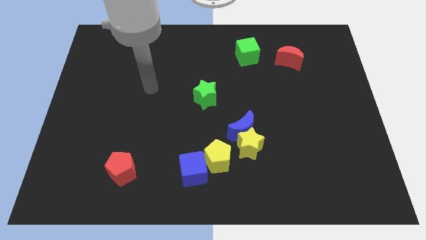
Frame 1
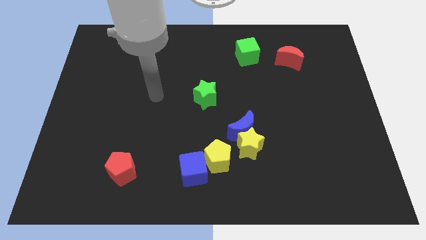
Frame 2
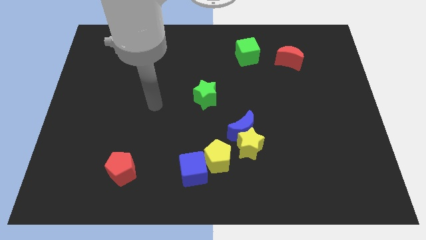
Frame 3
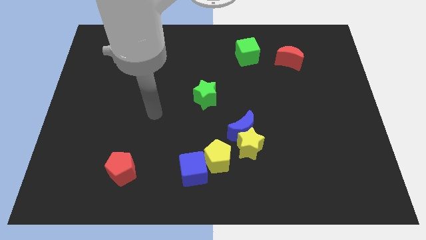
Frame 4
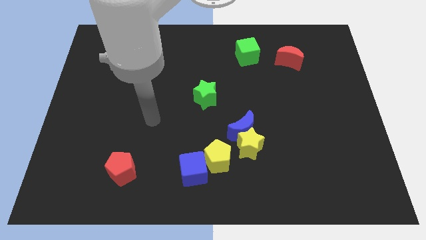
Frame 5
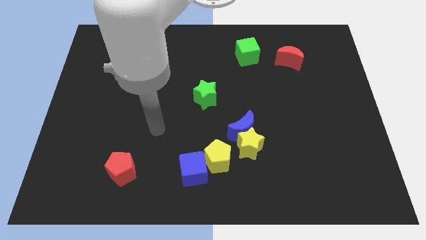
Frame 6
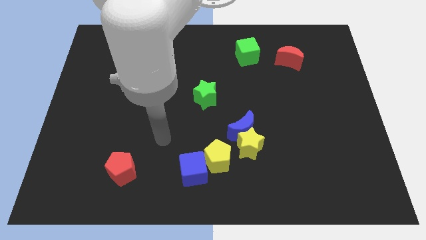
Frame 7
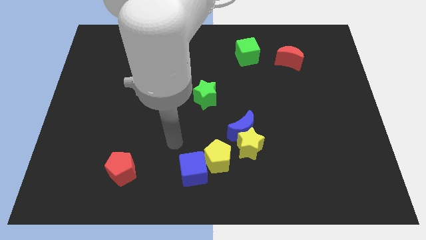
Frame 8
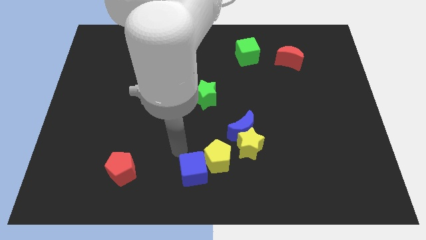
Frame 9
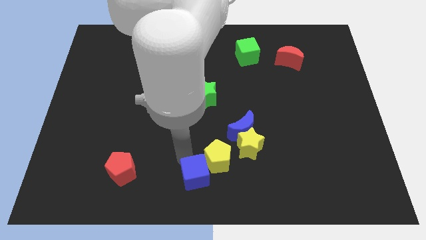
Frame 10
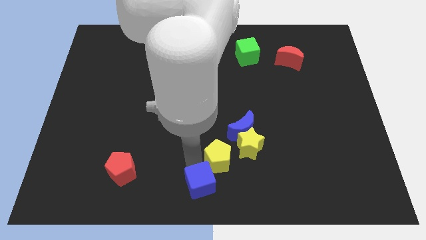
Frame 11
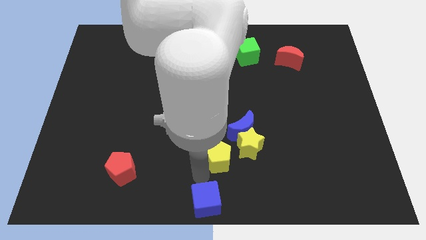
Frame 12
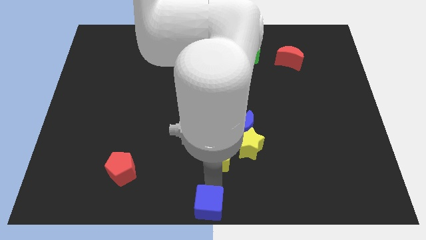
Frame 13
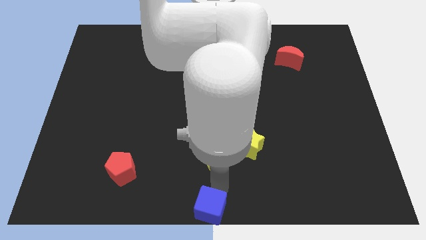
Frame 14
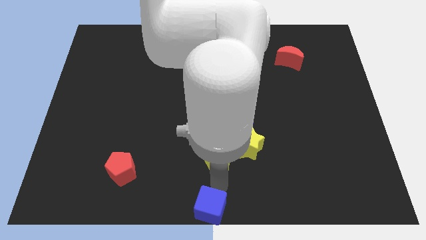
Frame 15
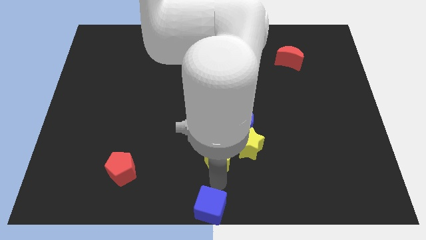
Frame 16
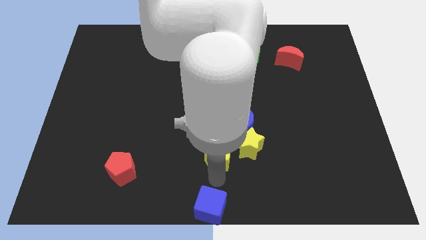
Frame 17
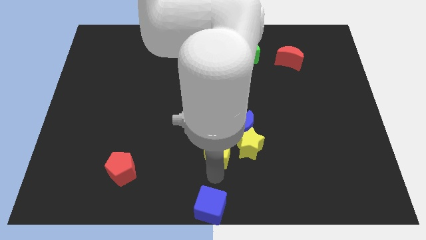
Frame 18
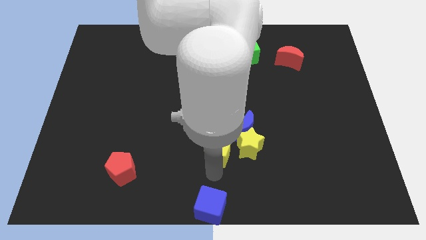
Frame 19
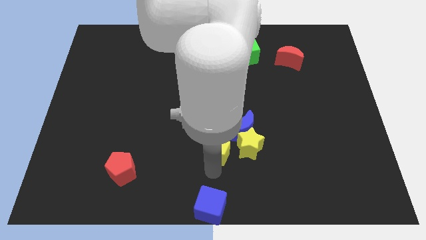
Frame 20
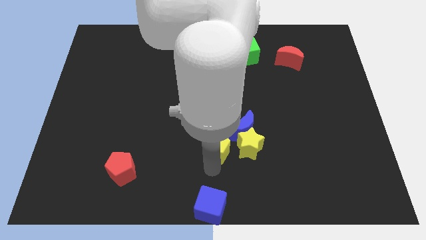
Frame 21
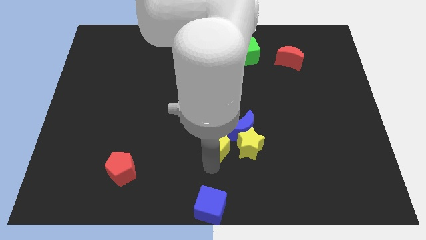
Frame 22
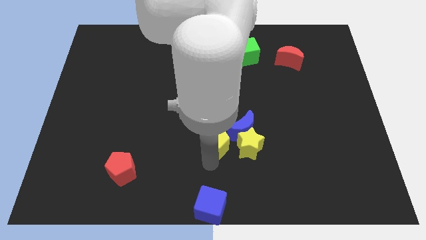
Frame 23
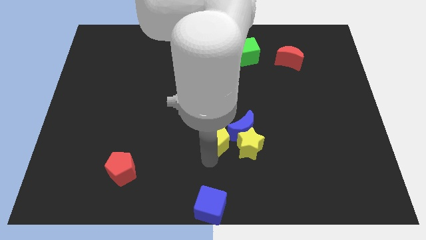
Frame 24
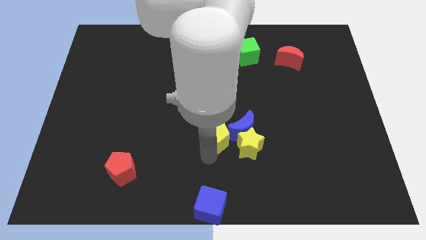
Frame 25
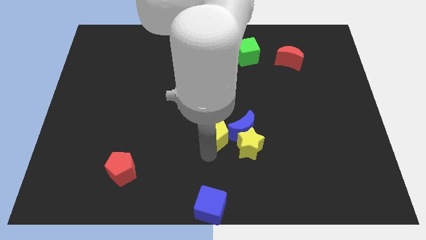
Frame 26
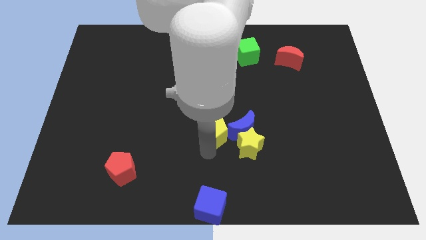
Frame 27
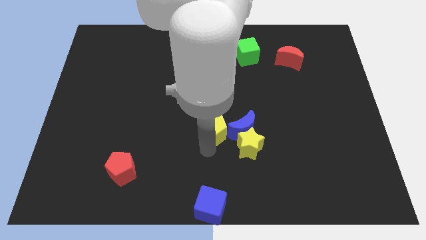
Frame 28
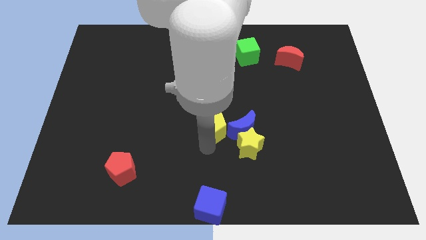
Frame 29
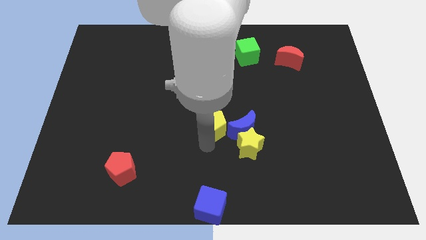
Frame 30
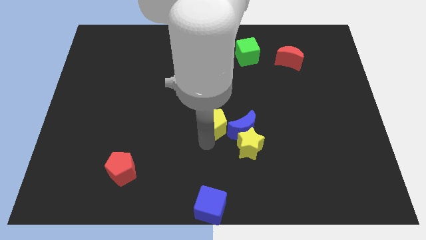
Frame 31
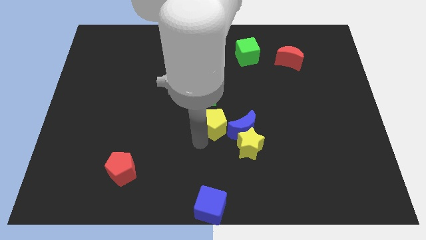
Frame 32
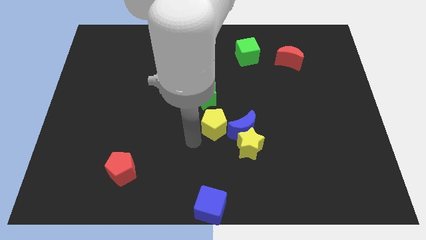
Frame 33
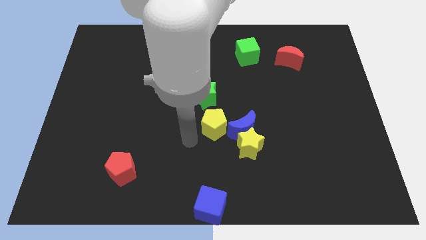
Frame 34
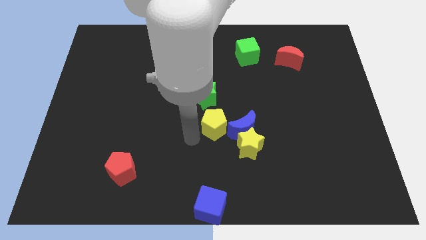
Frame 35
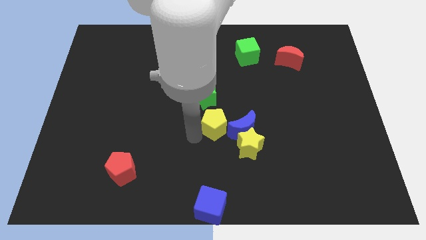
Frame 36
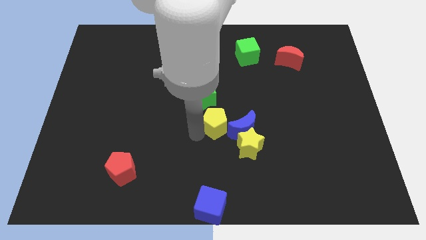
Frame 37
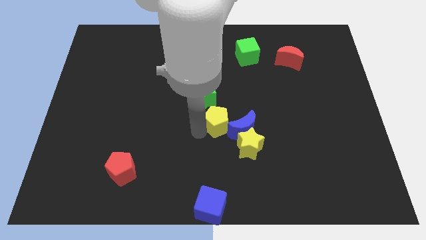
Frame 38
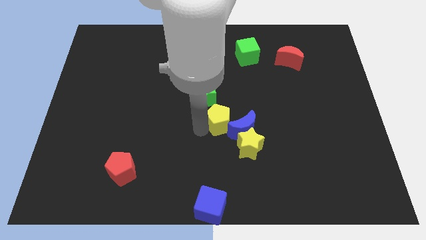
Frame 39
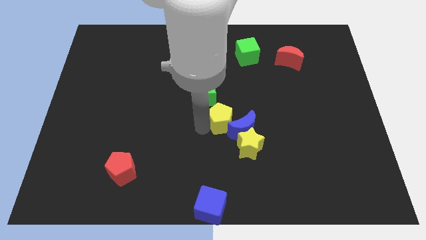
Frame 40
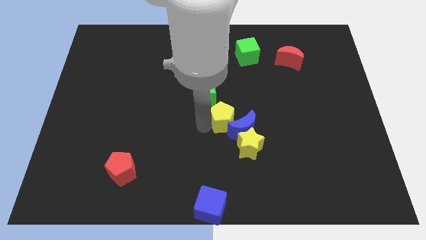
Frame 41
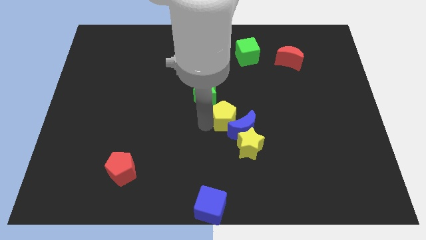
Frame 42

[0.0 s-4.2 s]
slide the yellow pentagon up and right slightly

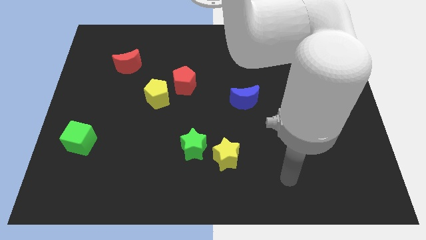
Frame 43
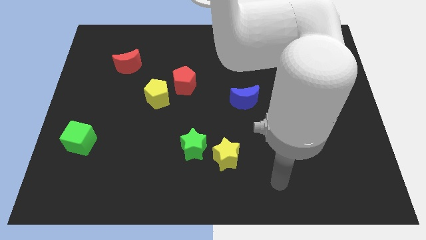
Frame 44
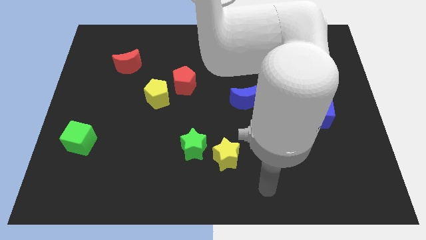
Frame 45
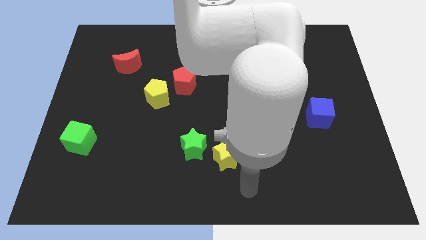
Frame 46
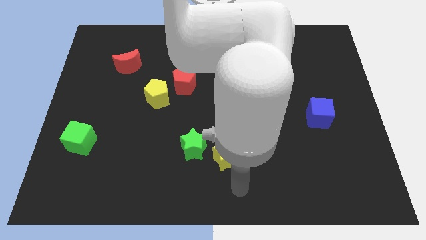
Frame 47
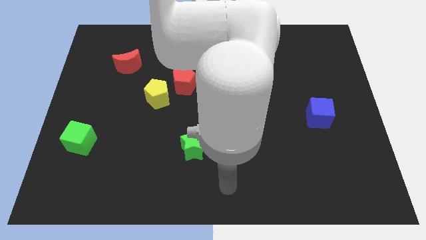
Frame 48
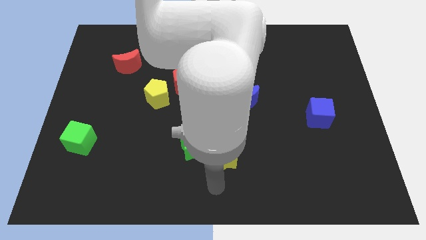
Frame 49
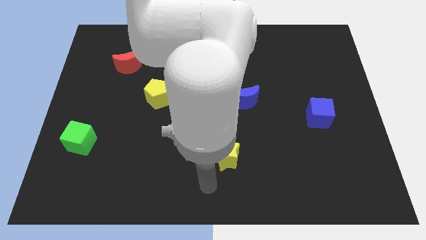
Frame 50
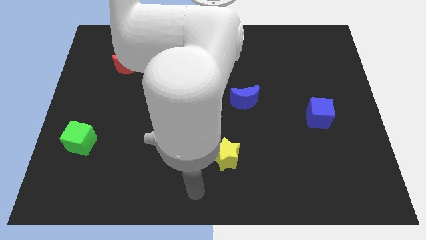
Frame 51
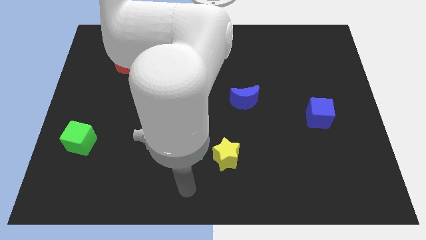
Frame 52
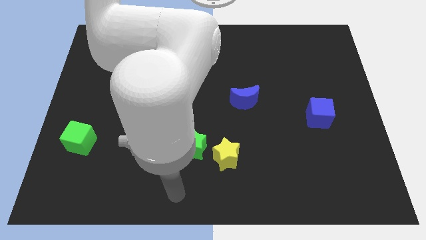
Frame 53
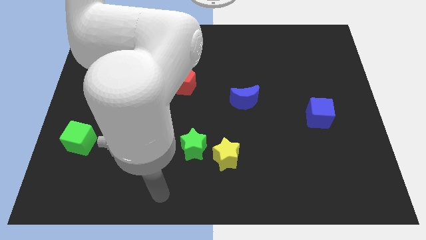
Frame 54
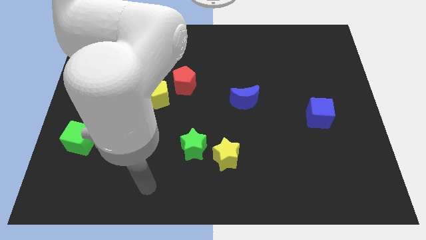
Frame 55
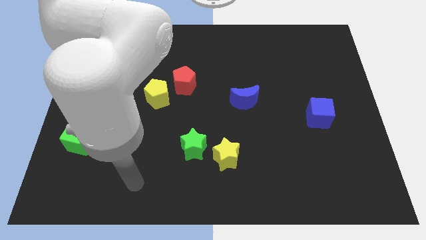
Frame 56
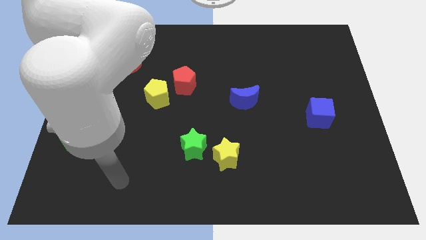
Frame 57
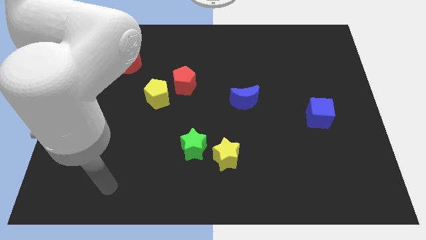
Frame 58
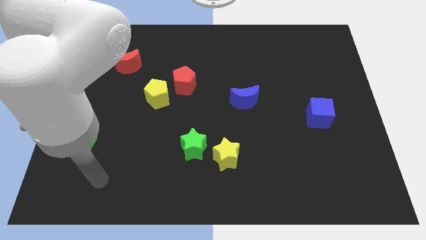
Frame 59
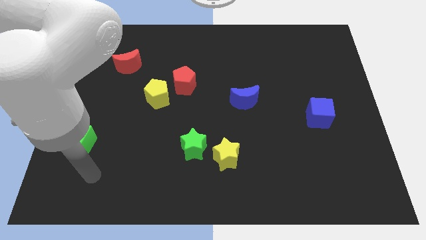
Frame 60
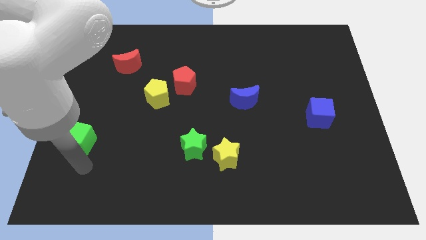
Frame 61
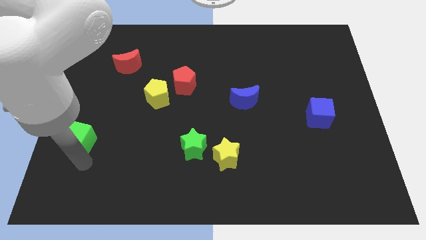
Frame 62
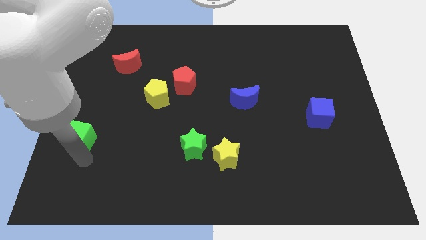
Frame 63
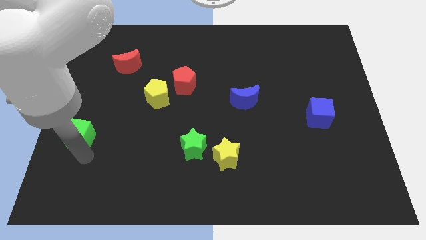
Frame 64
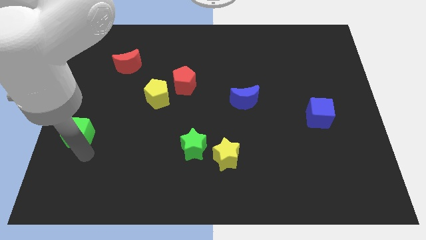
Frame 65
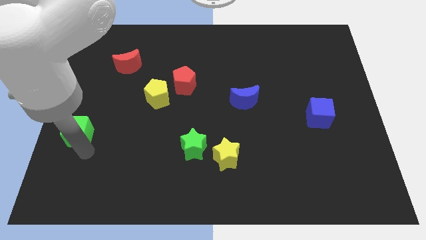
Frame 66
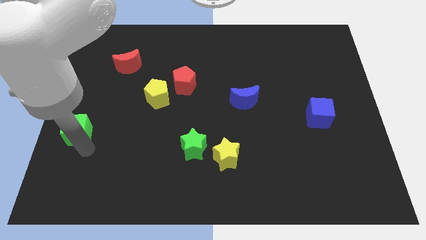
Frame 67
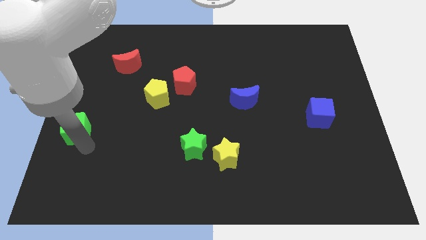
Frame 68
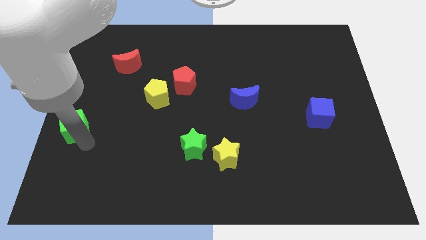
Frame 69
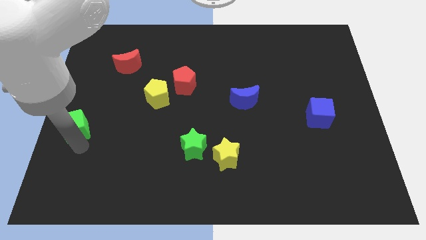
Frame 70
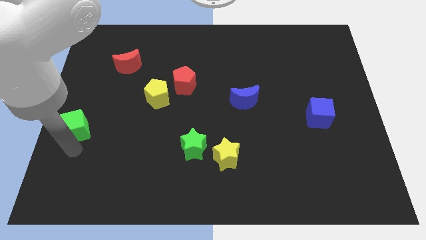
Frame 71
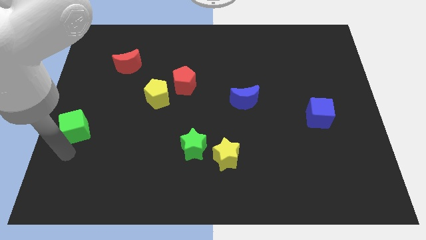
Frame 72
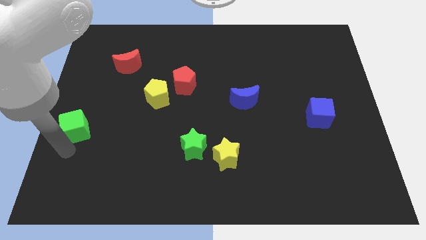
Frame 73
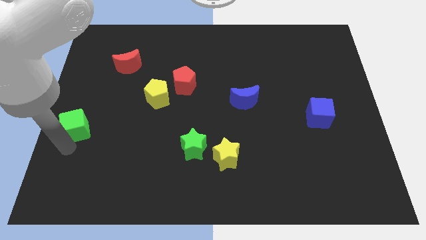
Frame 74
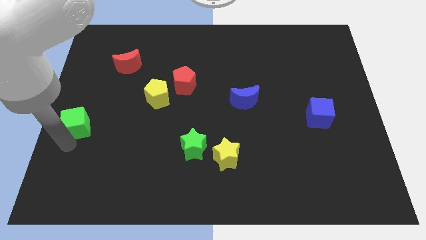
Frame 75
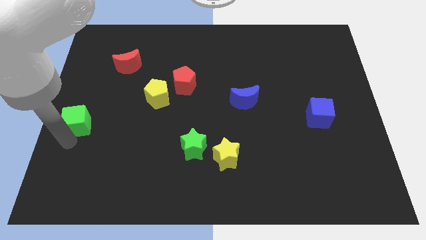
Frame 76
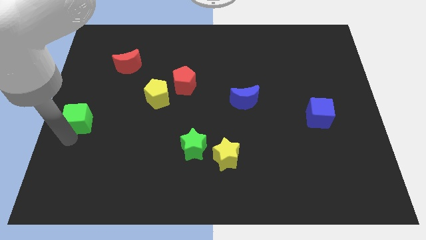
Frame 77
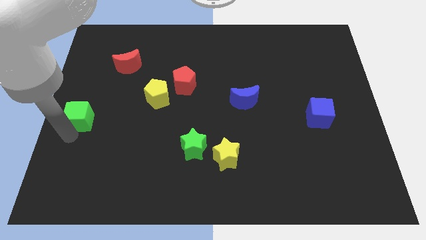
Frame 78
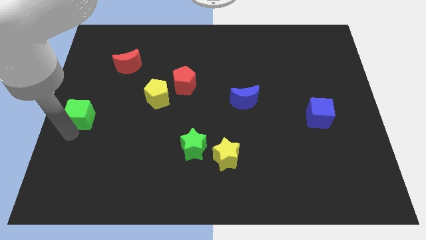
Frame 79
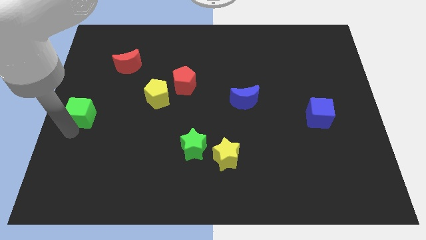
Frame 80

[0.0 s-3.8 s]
move the green cube up a little
